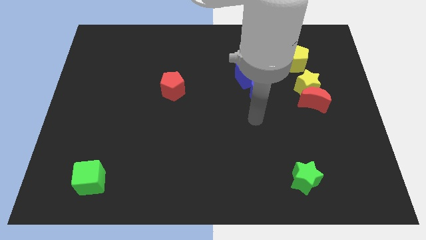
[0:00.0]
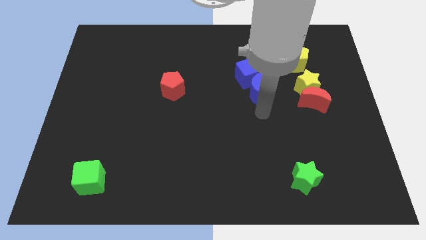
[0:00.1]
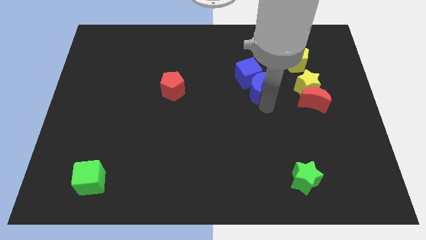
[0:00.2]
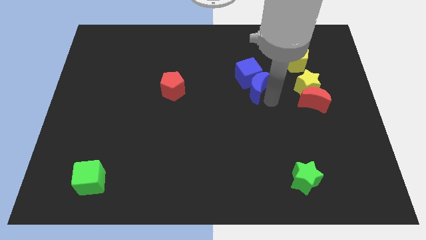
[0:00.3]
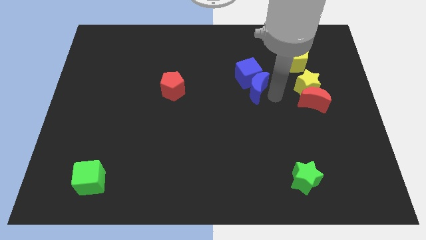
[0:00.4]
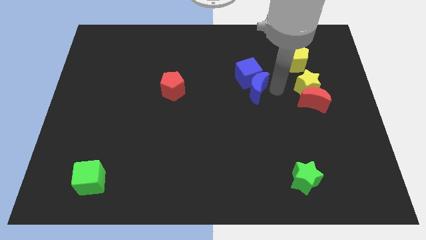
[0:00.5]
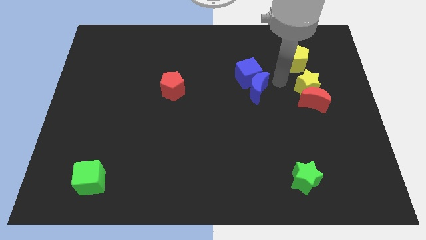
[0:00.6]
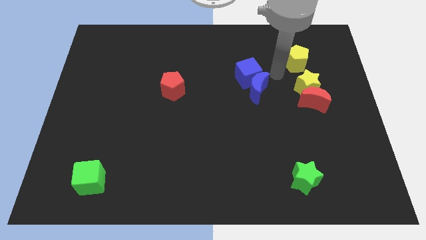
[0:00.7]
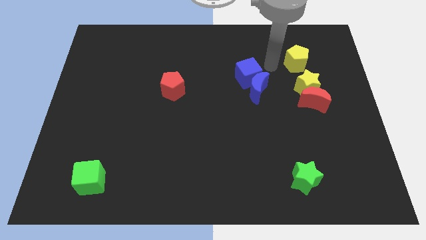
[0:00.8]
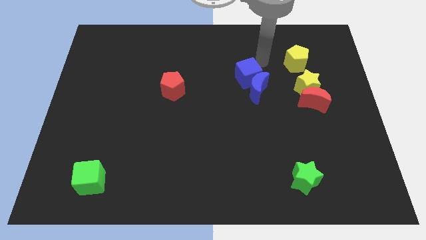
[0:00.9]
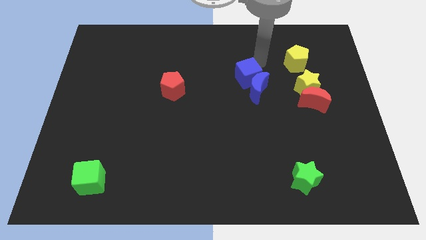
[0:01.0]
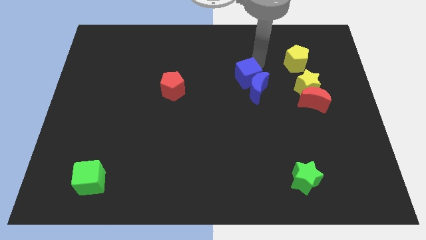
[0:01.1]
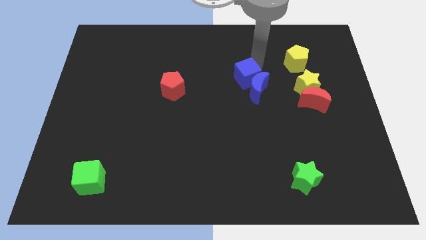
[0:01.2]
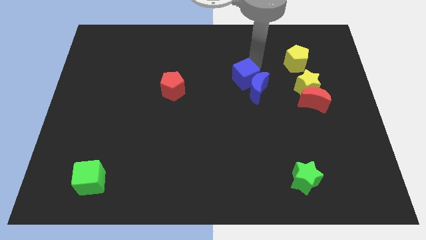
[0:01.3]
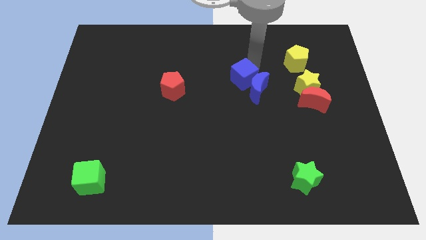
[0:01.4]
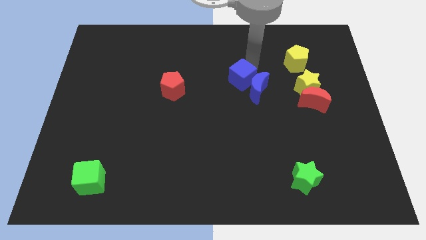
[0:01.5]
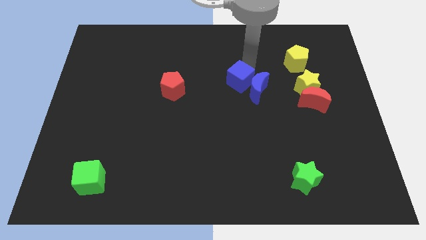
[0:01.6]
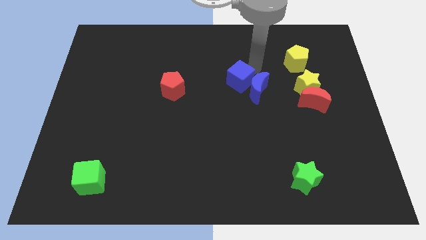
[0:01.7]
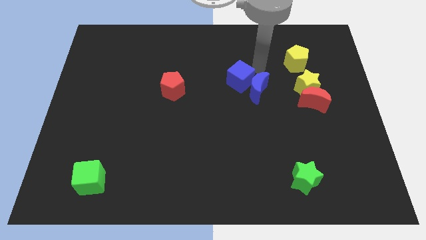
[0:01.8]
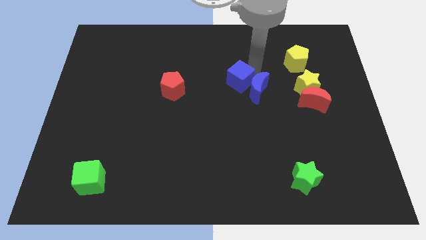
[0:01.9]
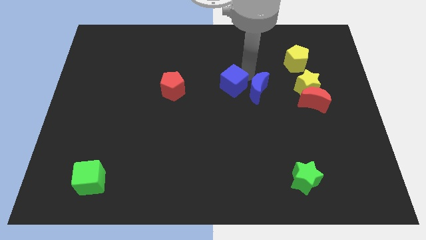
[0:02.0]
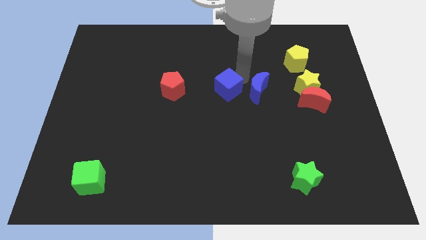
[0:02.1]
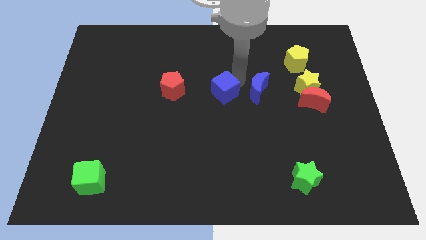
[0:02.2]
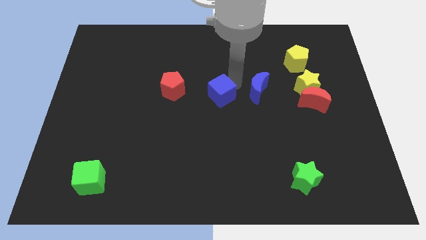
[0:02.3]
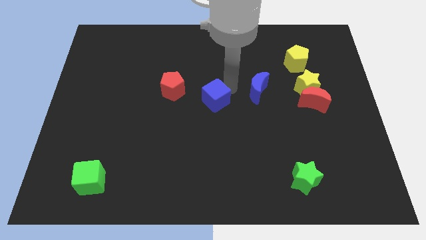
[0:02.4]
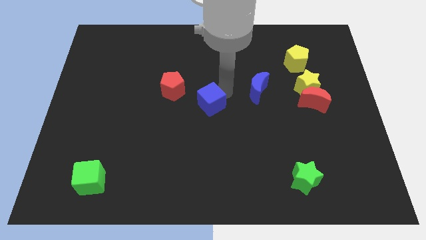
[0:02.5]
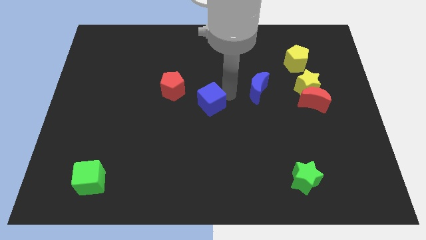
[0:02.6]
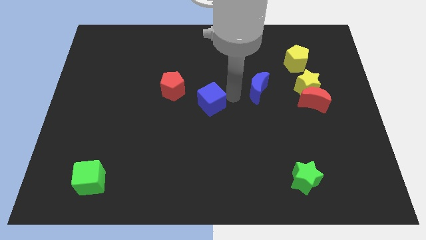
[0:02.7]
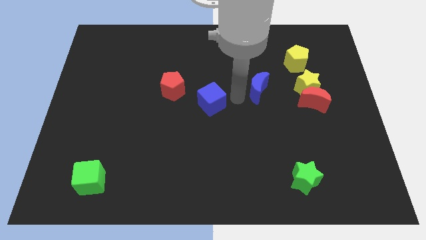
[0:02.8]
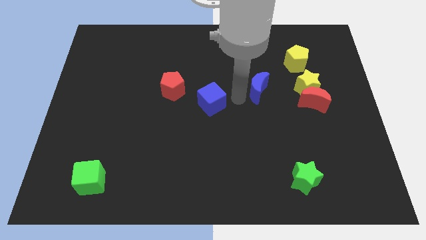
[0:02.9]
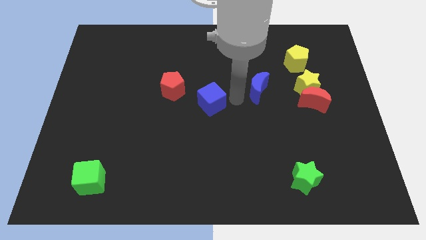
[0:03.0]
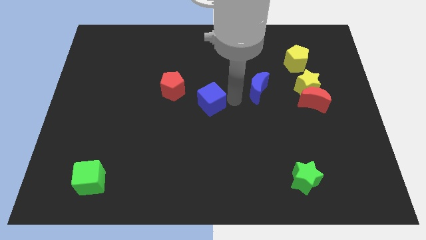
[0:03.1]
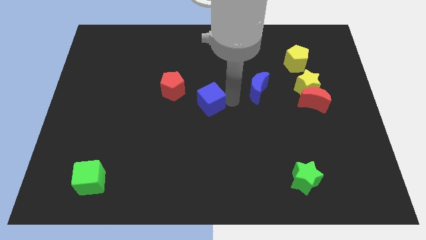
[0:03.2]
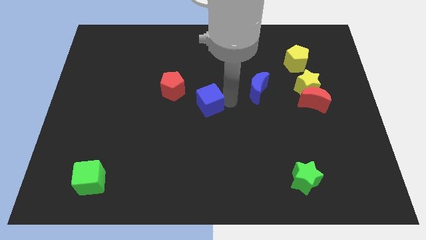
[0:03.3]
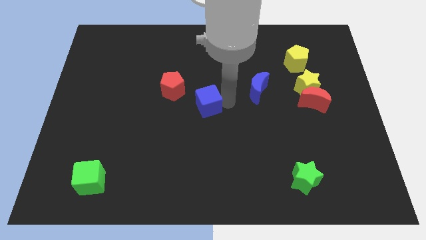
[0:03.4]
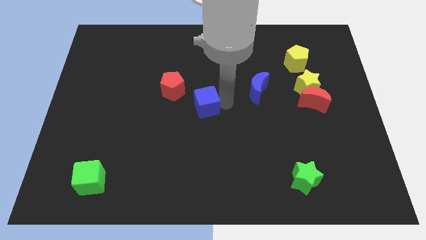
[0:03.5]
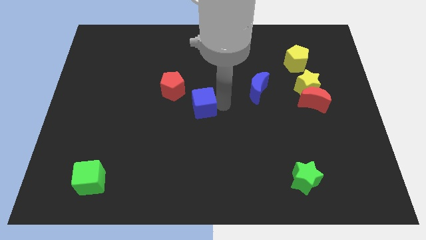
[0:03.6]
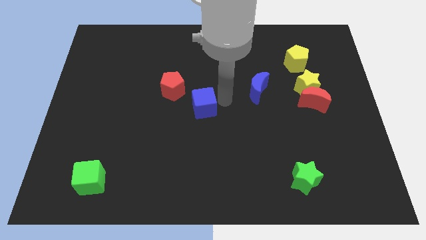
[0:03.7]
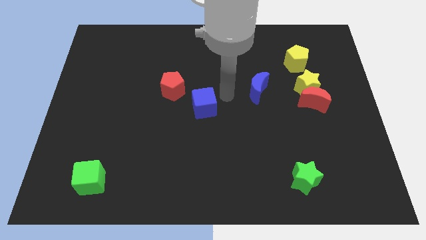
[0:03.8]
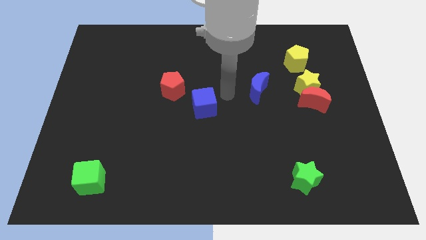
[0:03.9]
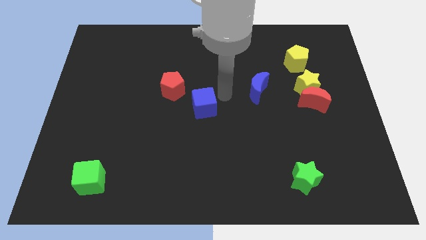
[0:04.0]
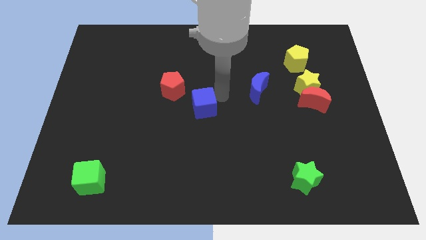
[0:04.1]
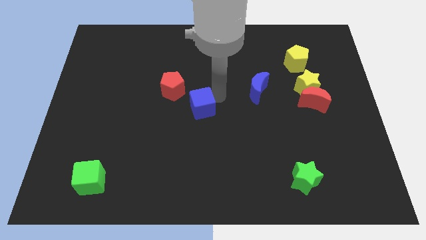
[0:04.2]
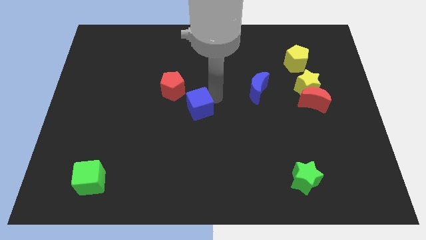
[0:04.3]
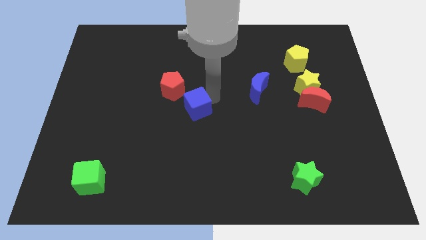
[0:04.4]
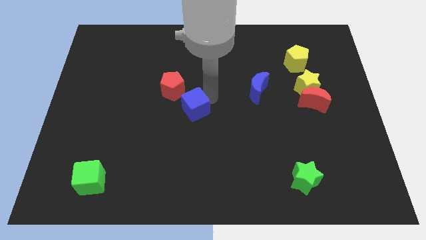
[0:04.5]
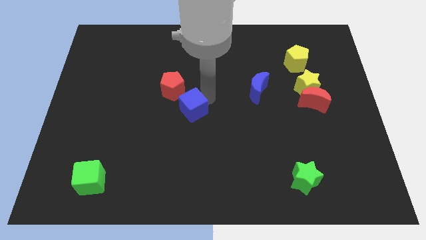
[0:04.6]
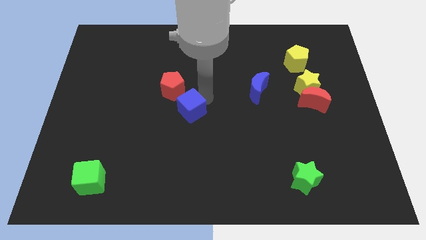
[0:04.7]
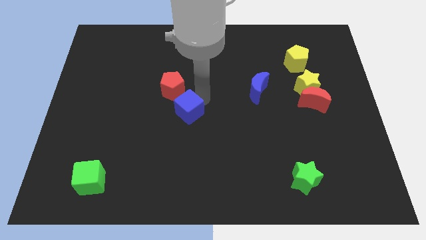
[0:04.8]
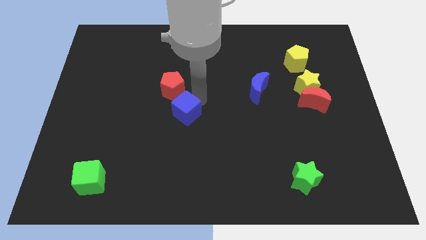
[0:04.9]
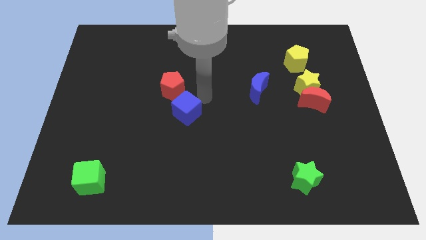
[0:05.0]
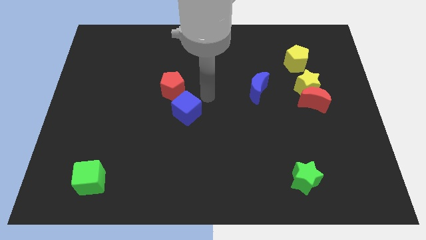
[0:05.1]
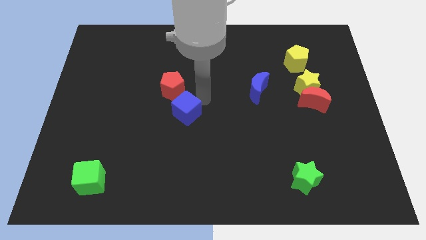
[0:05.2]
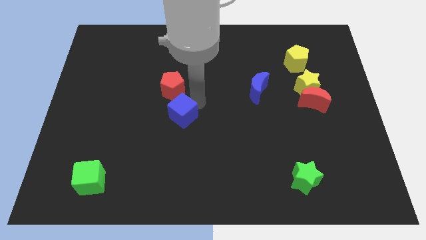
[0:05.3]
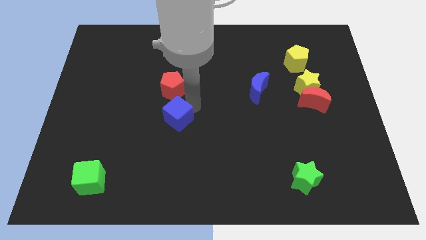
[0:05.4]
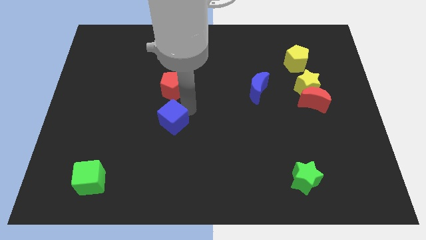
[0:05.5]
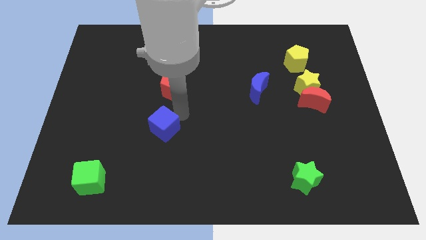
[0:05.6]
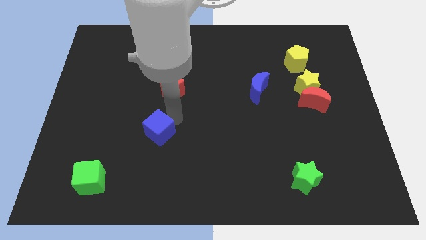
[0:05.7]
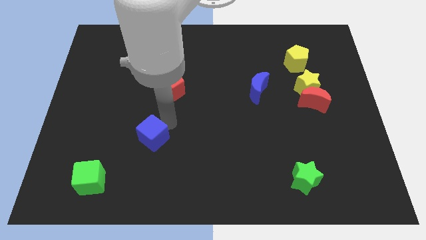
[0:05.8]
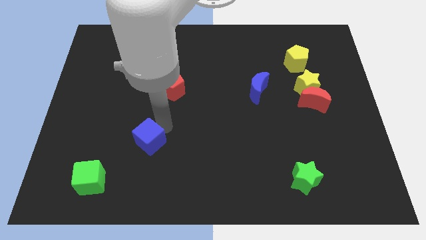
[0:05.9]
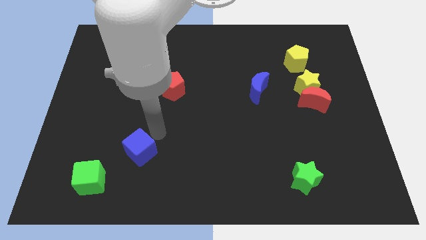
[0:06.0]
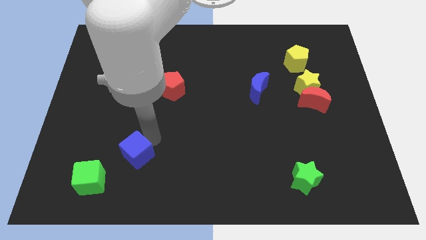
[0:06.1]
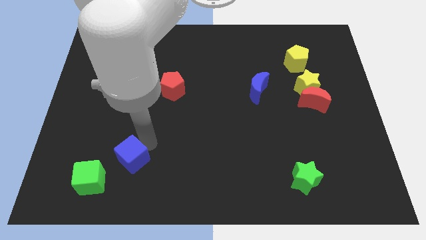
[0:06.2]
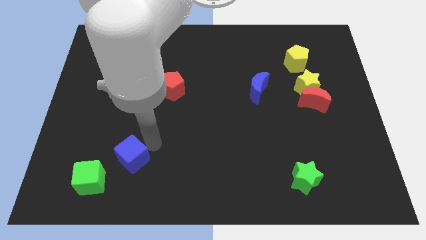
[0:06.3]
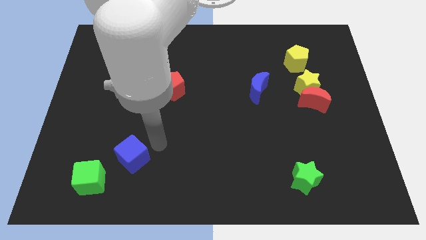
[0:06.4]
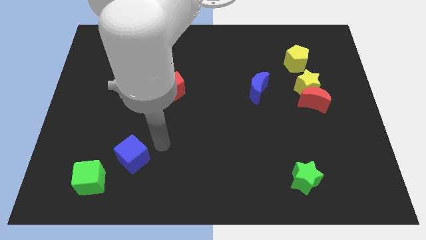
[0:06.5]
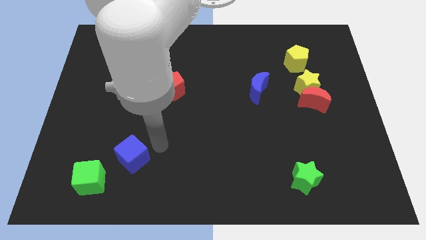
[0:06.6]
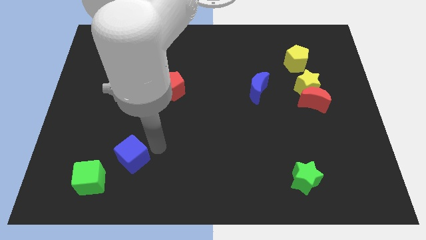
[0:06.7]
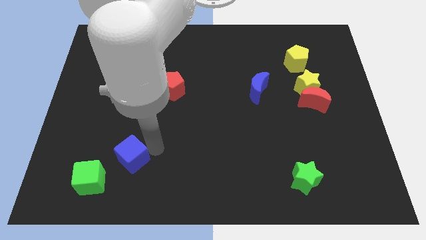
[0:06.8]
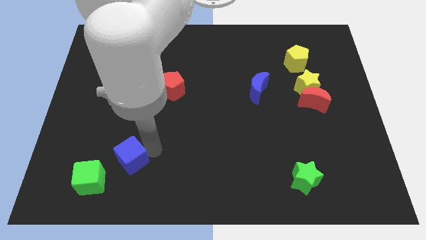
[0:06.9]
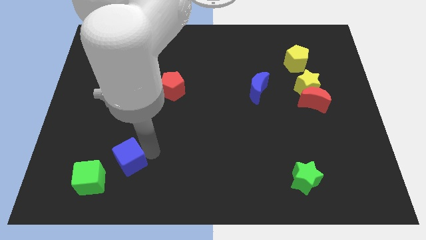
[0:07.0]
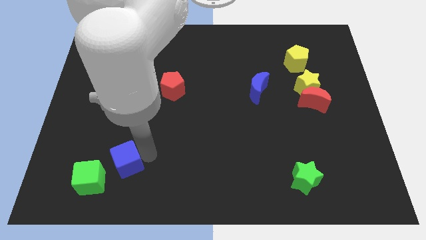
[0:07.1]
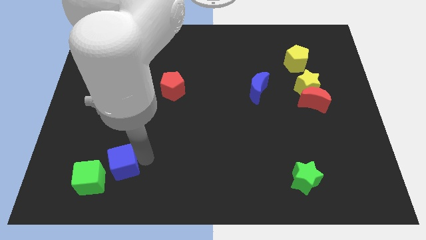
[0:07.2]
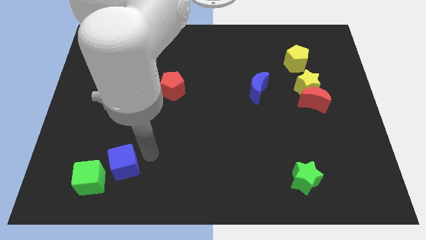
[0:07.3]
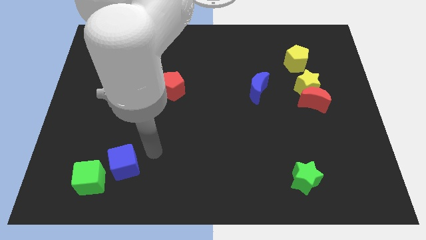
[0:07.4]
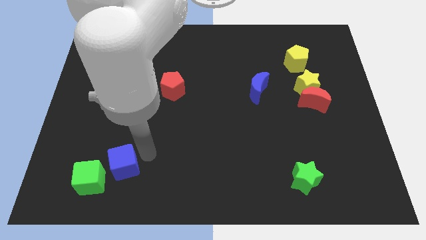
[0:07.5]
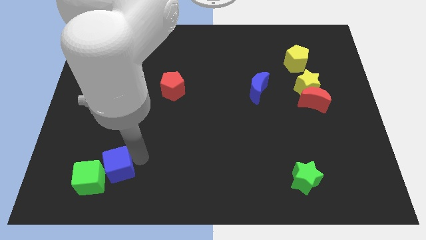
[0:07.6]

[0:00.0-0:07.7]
move the blue cube close to the green cube
